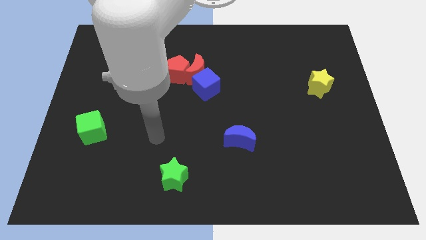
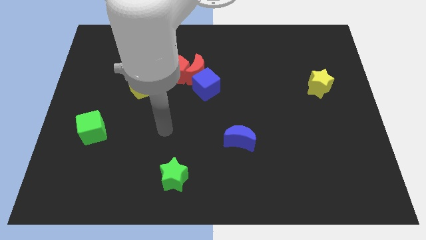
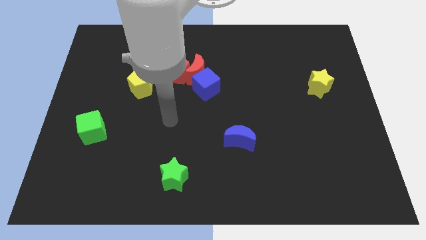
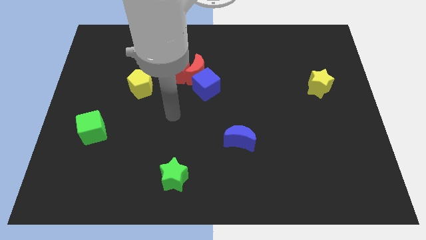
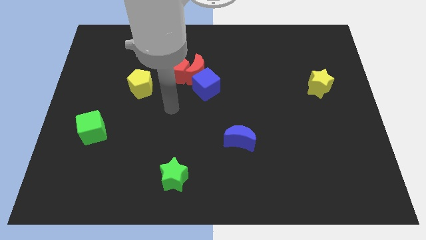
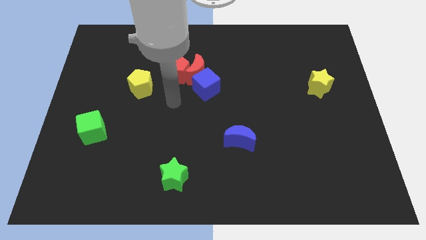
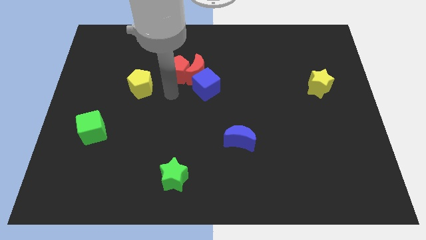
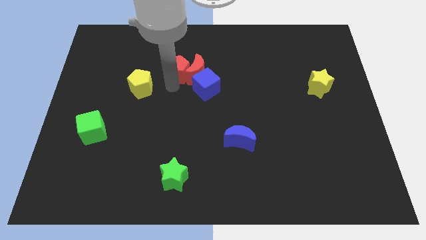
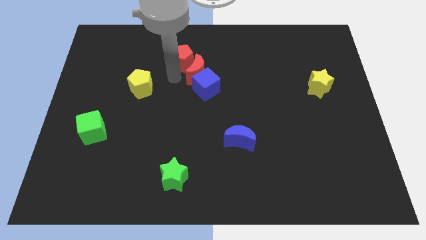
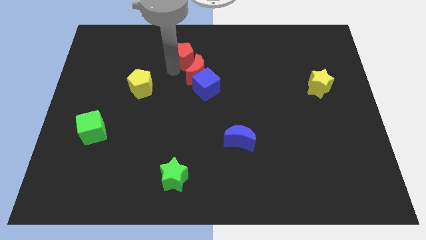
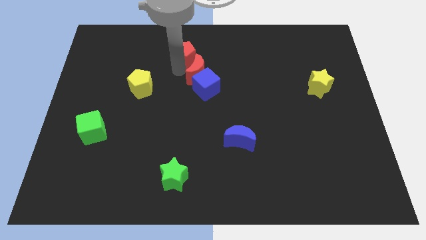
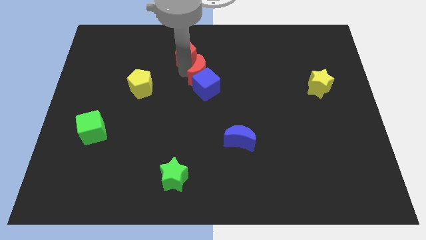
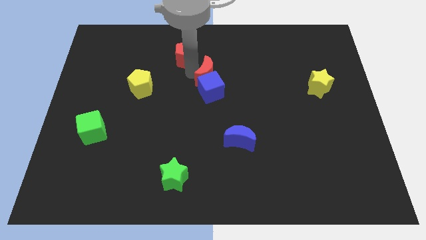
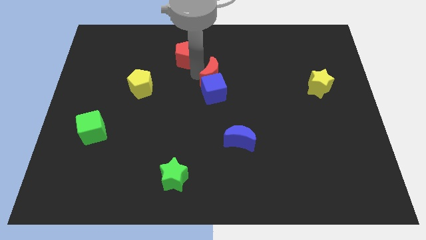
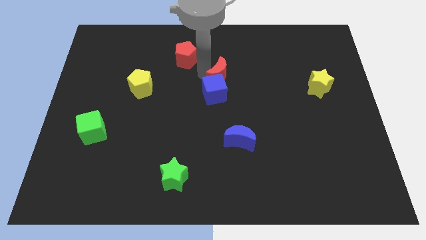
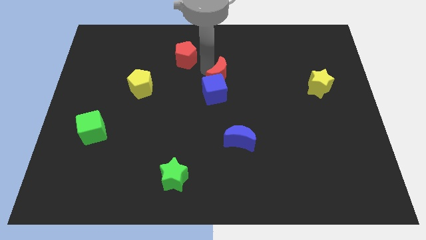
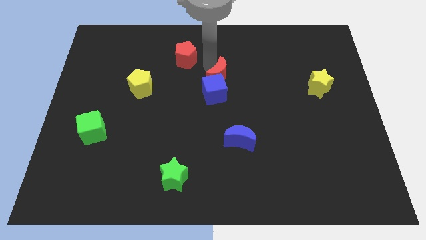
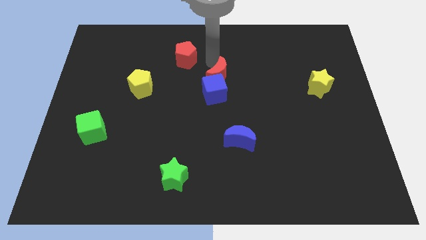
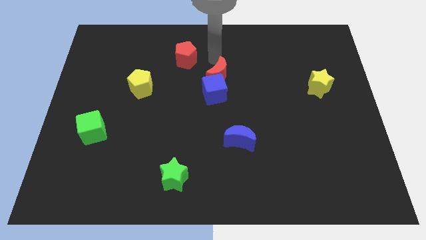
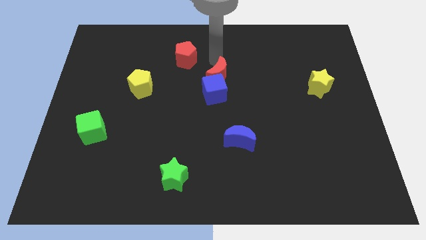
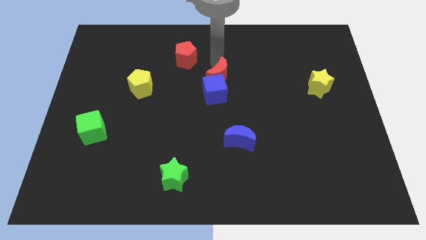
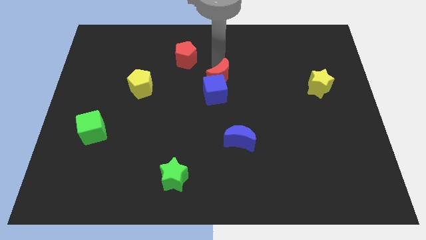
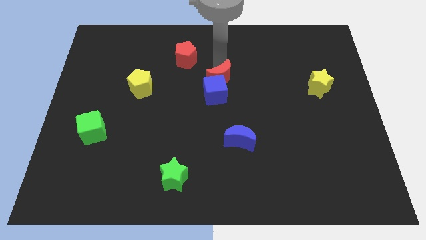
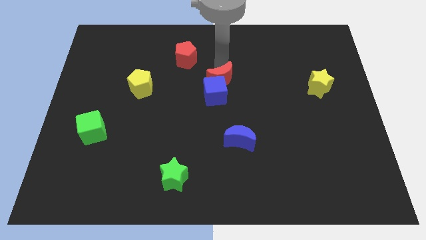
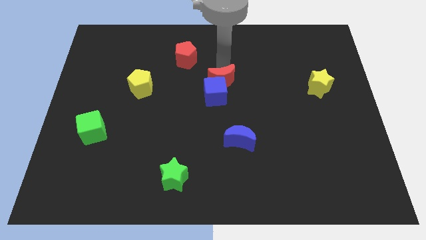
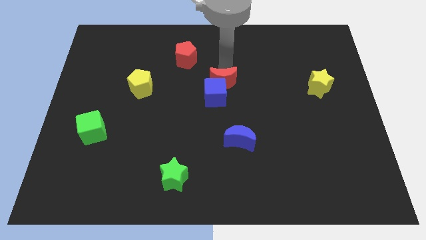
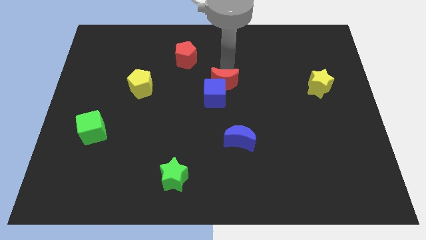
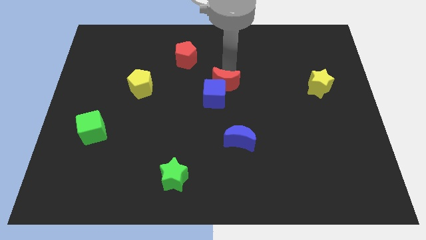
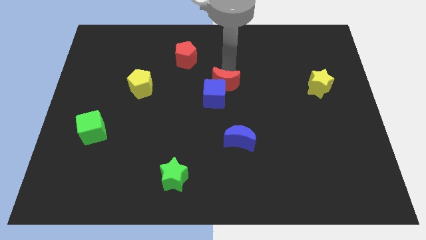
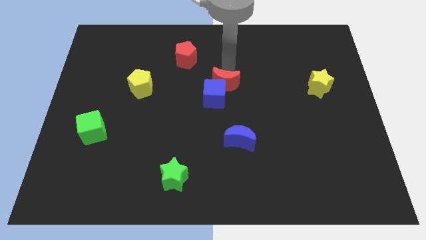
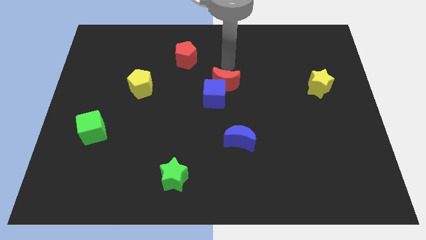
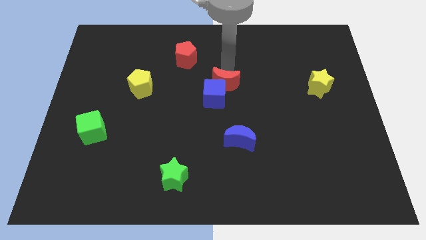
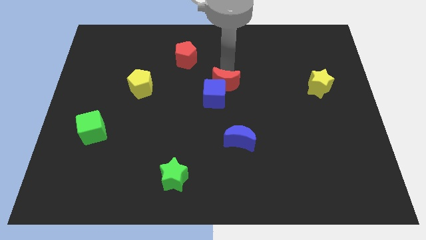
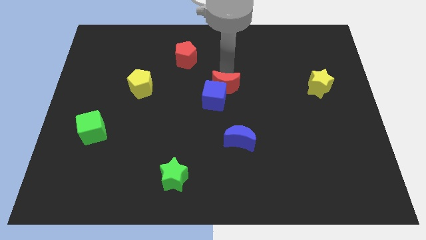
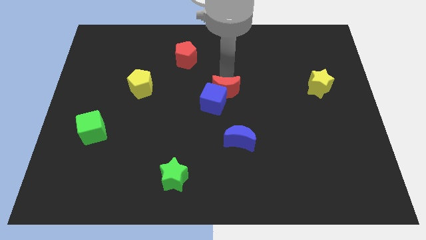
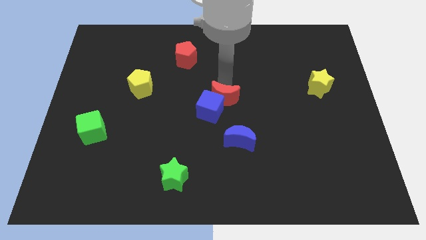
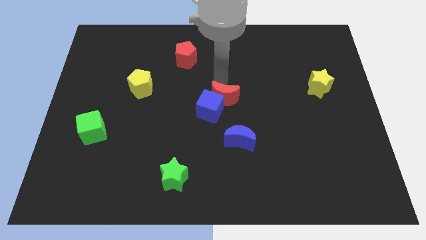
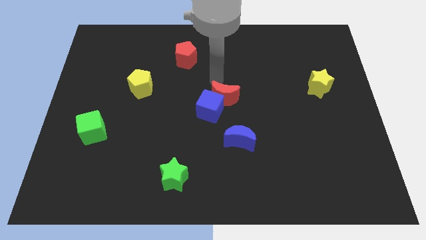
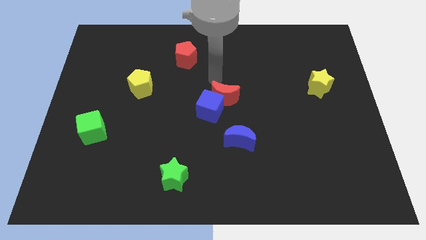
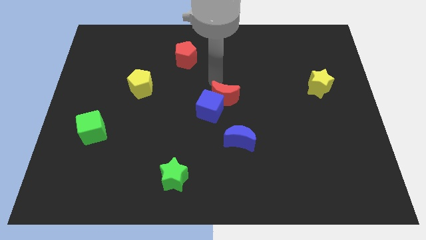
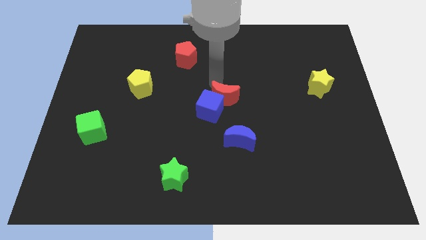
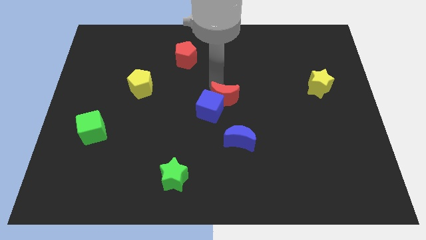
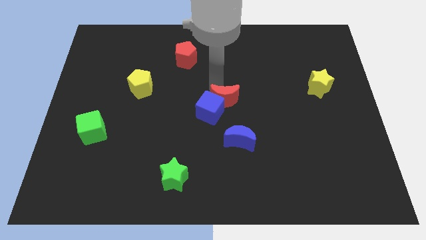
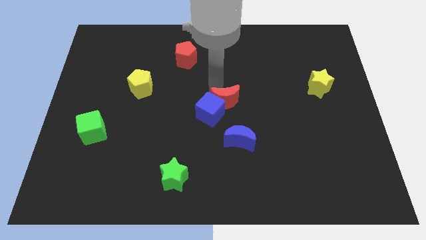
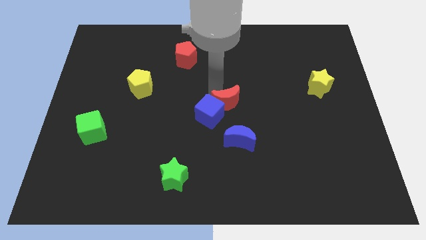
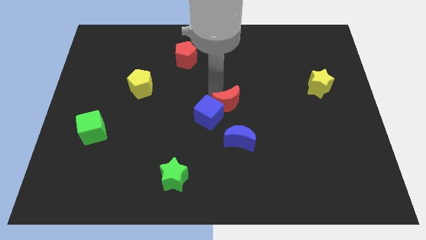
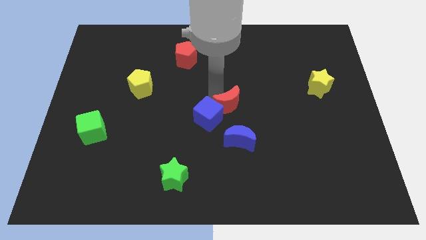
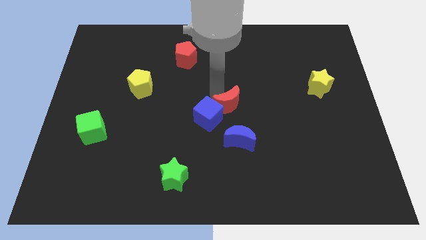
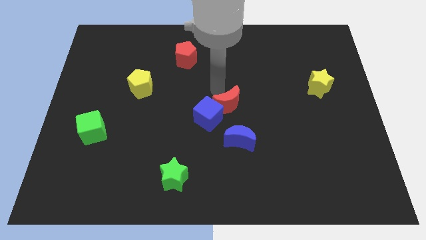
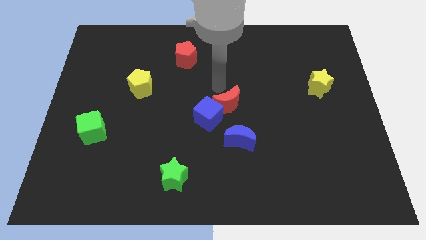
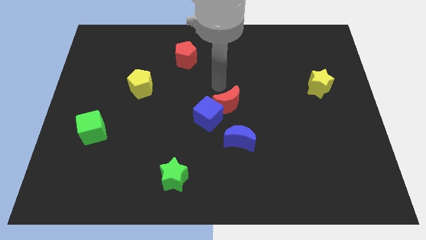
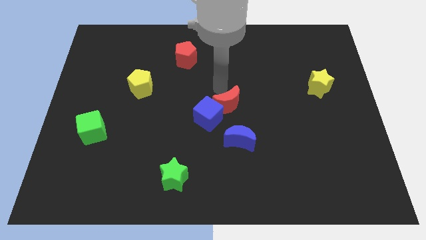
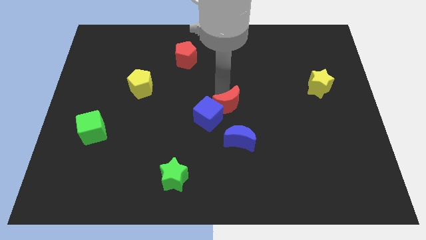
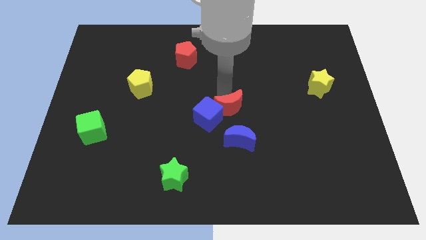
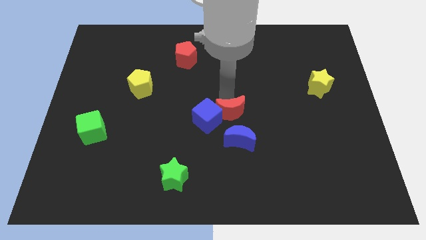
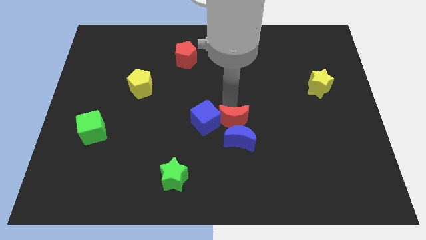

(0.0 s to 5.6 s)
push the red moon next to the blue moon

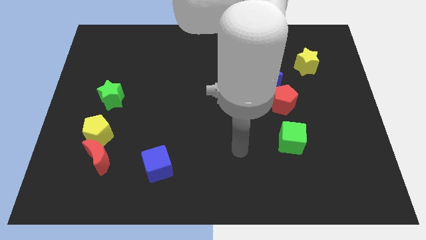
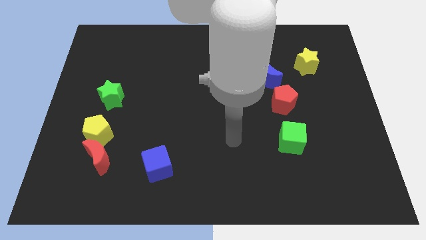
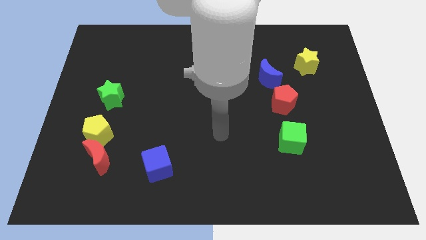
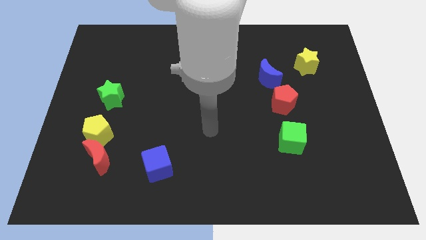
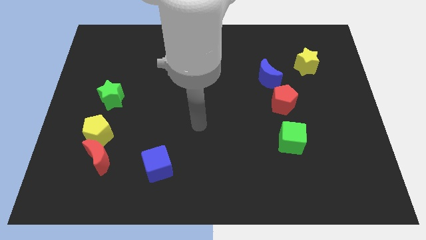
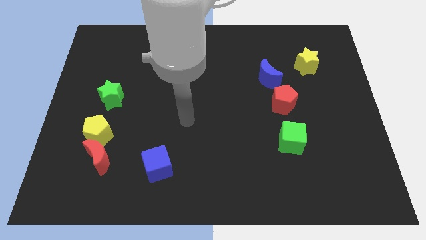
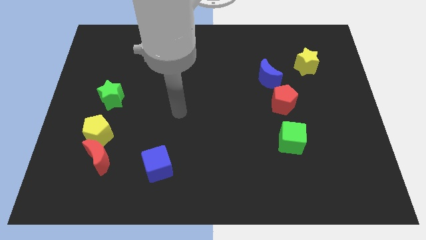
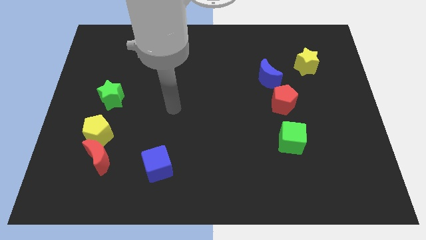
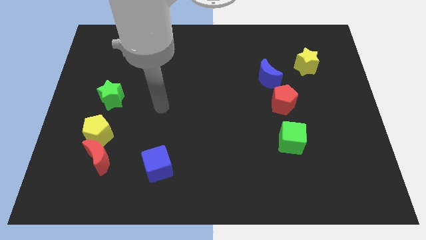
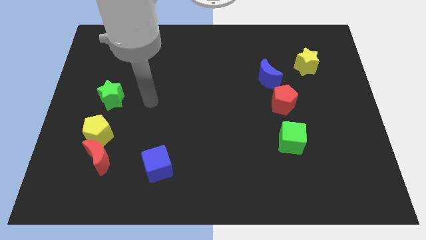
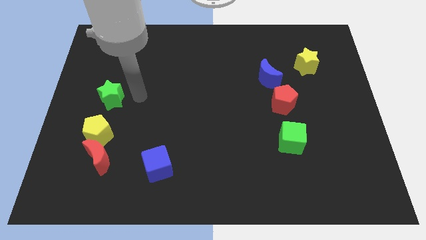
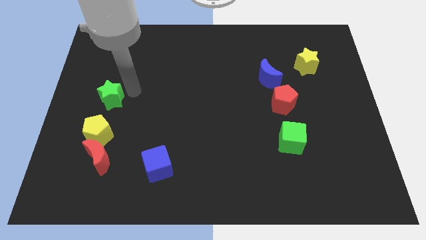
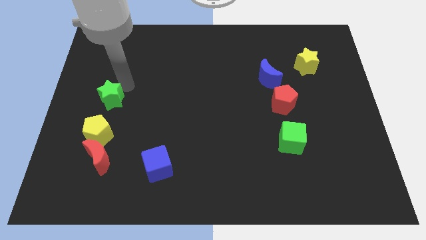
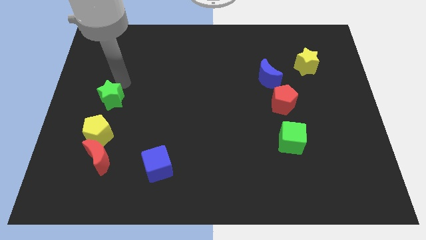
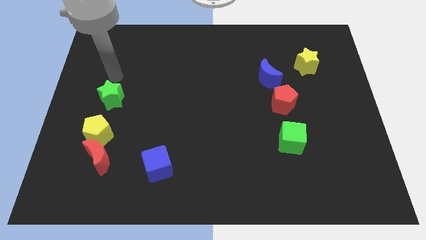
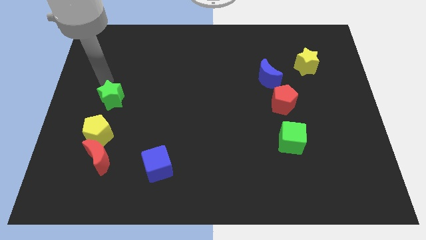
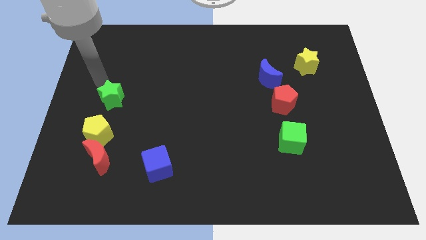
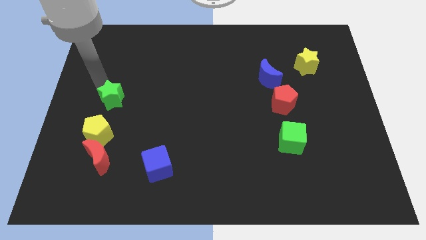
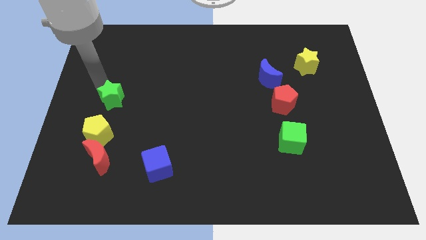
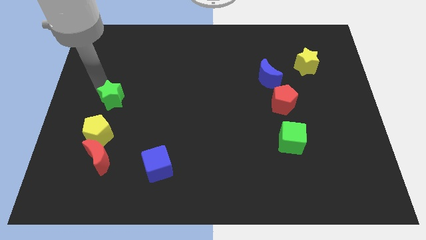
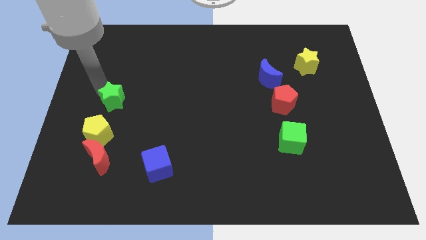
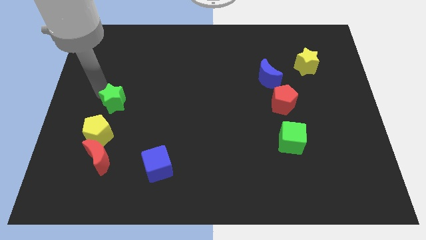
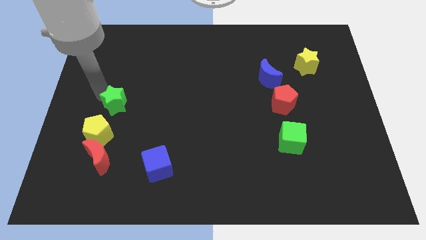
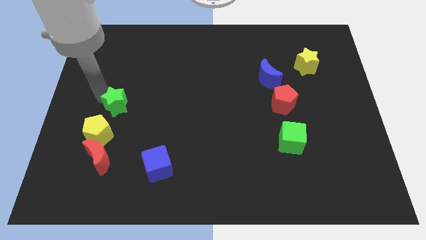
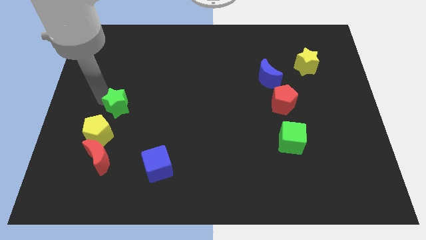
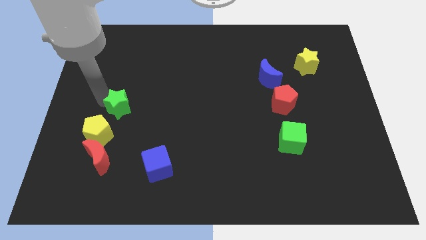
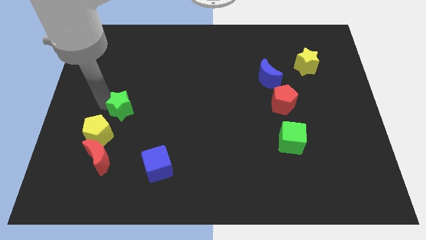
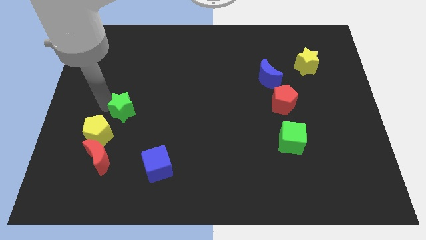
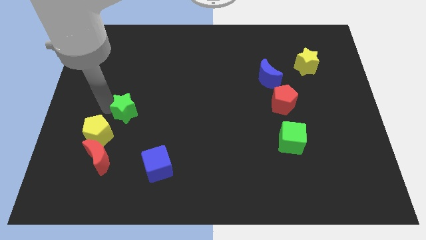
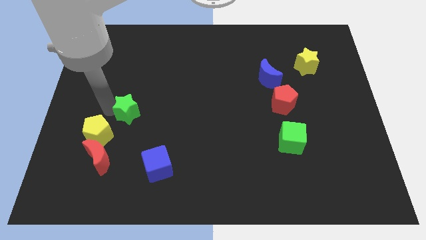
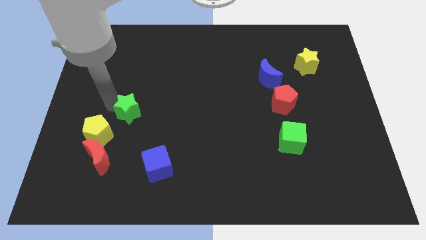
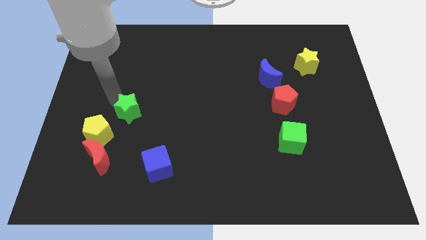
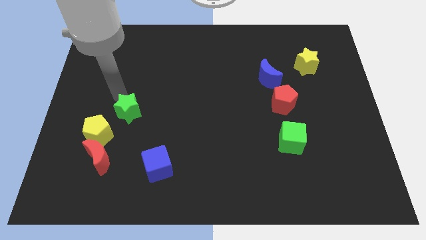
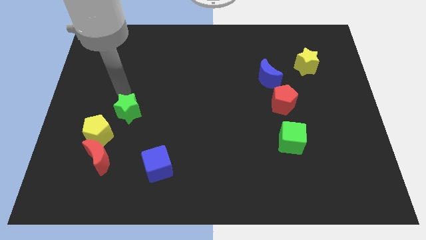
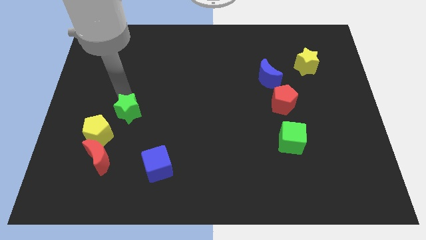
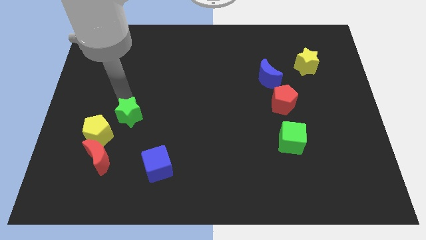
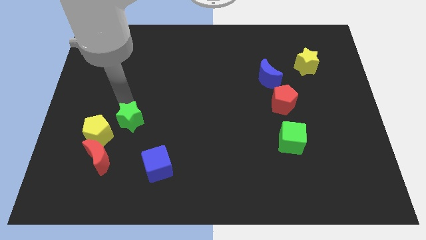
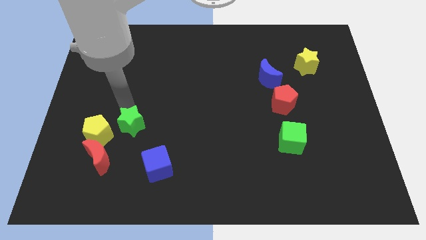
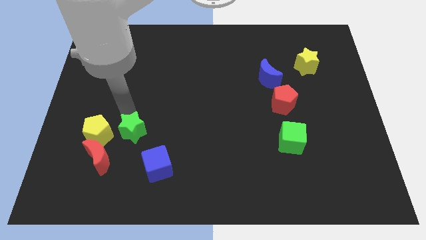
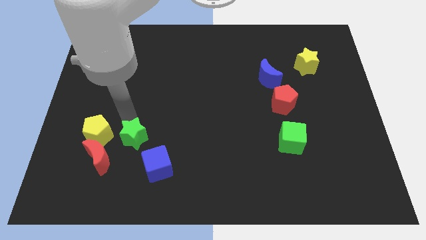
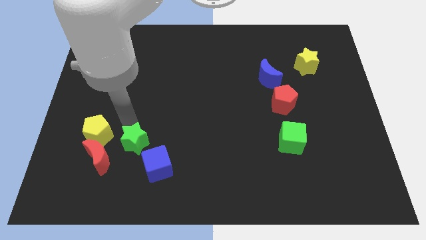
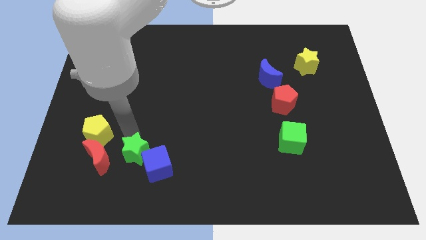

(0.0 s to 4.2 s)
slide the green star close to the blue cube
